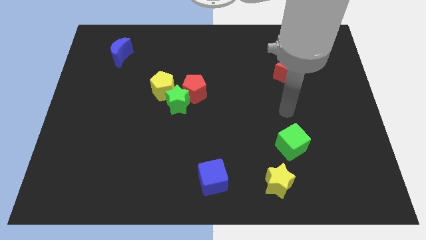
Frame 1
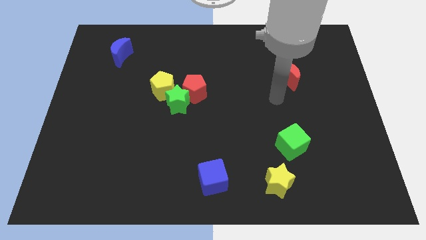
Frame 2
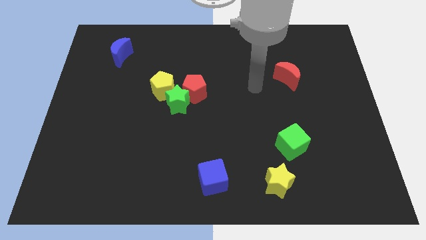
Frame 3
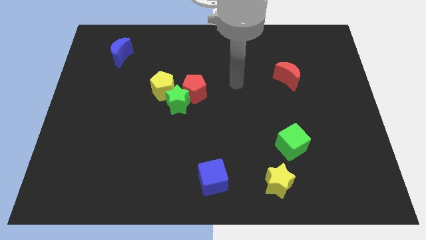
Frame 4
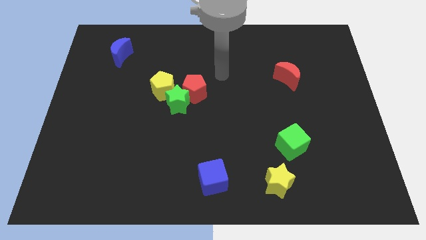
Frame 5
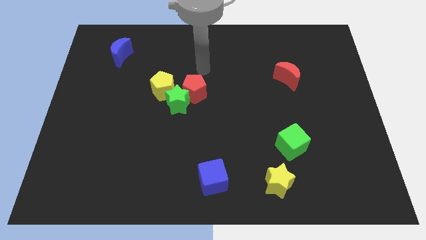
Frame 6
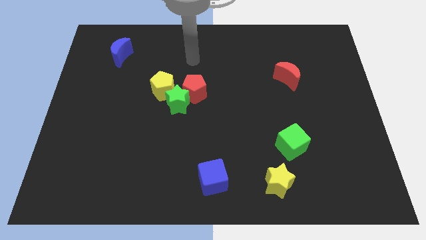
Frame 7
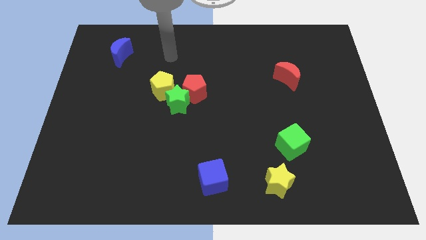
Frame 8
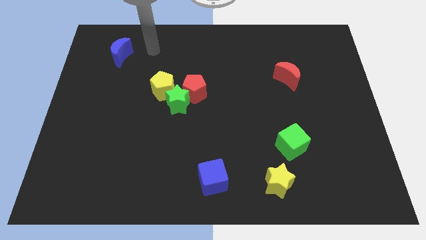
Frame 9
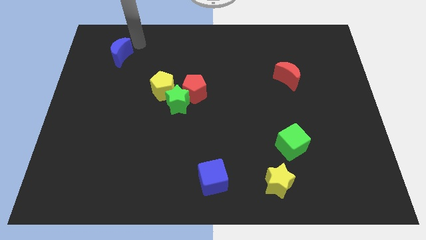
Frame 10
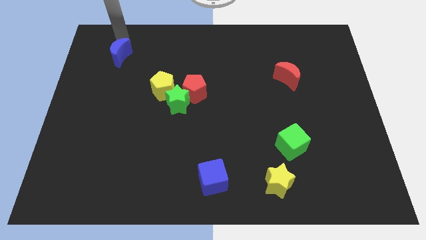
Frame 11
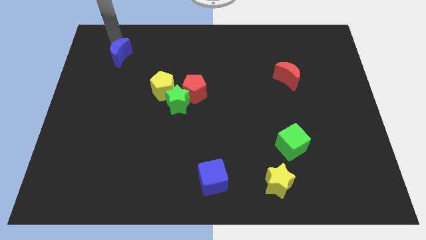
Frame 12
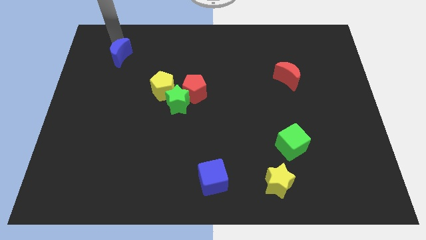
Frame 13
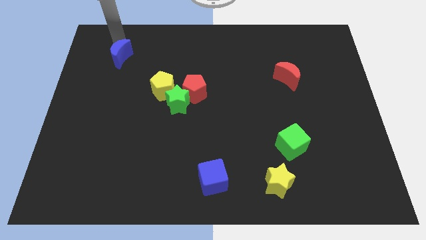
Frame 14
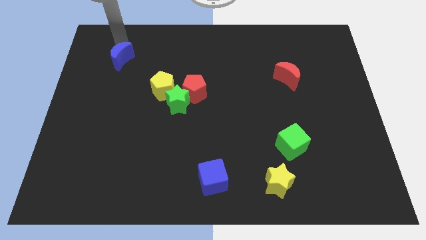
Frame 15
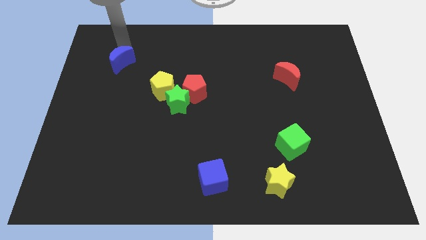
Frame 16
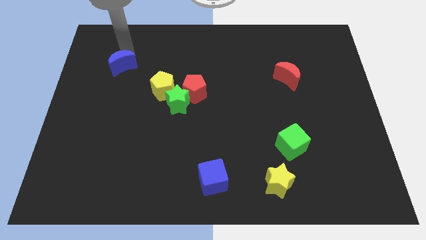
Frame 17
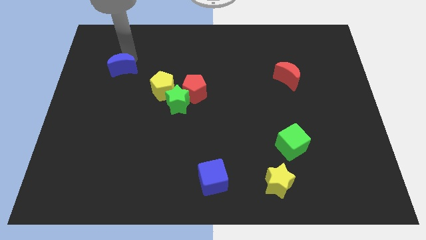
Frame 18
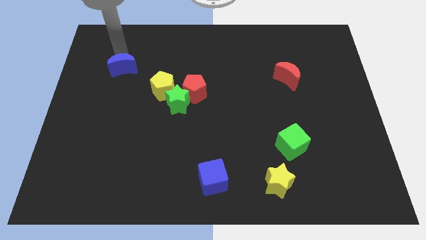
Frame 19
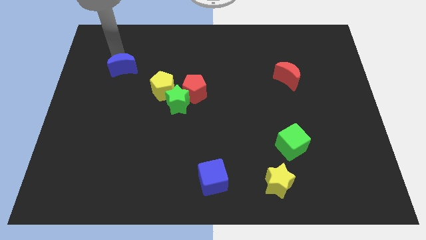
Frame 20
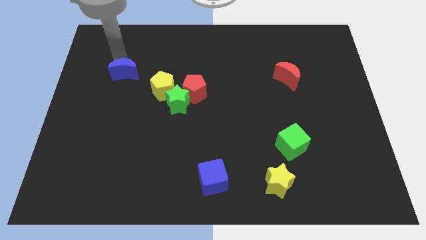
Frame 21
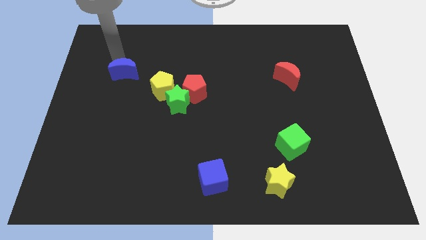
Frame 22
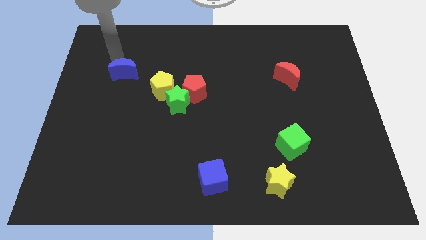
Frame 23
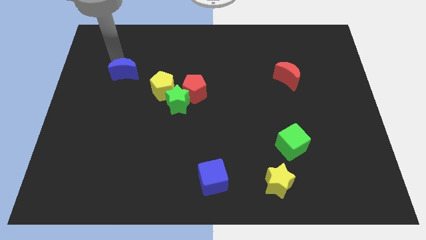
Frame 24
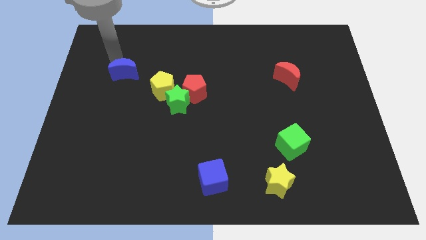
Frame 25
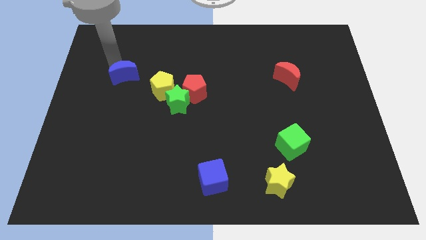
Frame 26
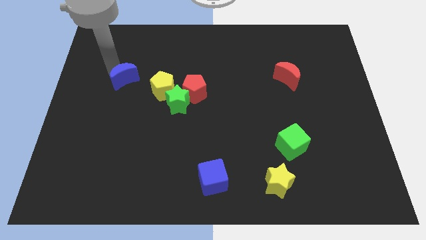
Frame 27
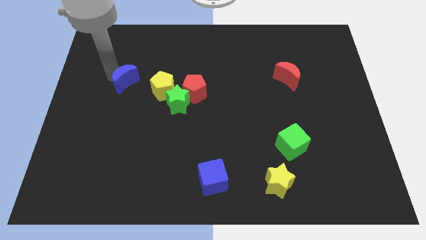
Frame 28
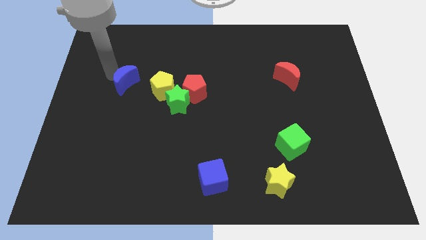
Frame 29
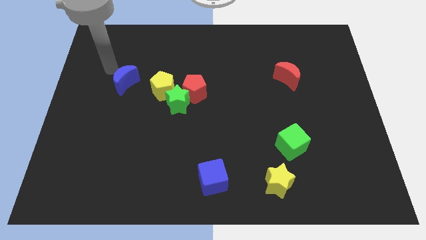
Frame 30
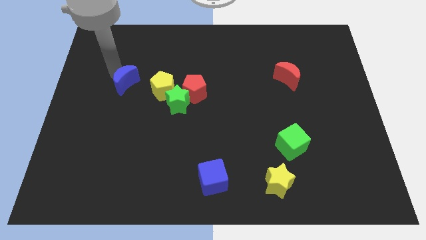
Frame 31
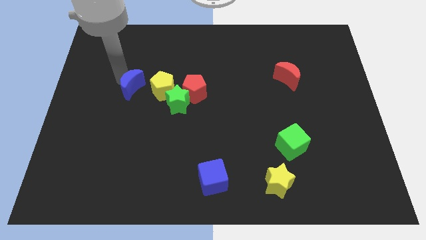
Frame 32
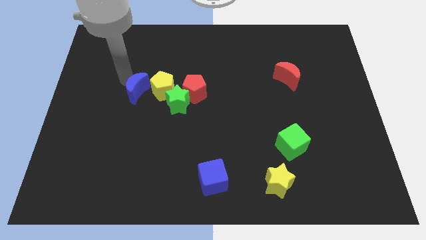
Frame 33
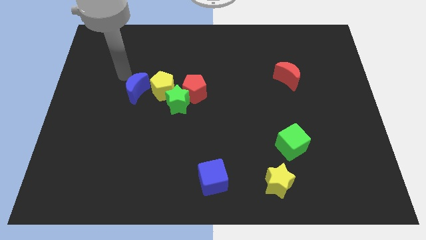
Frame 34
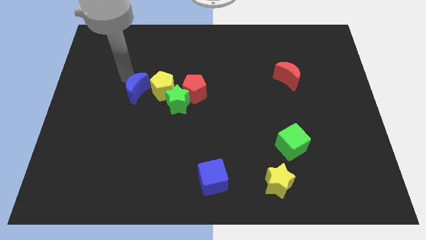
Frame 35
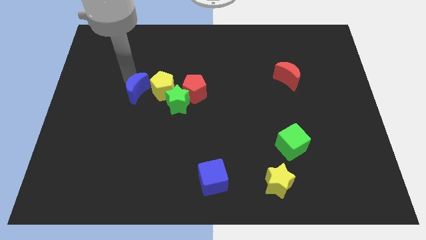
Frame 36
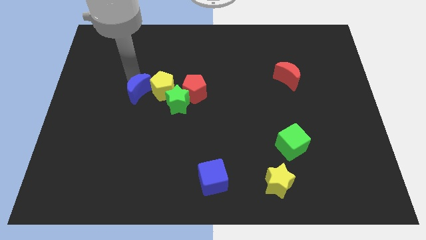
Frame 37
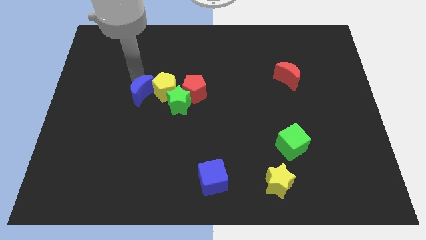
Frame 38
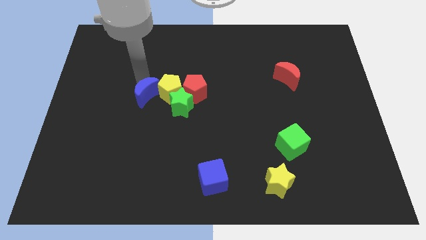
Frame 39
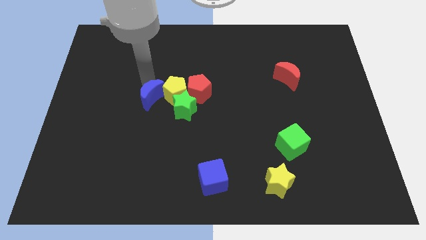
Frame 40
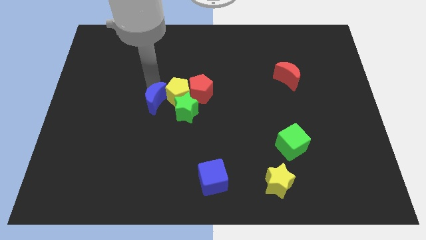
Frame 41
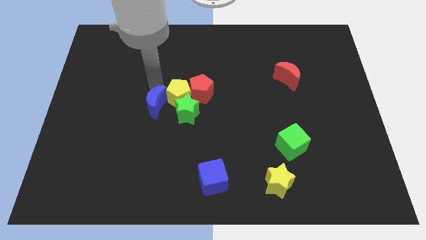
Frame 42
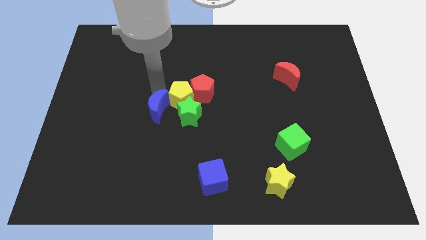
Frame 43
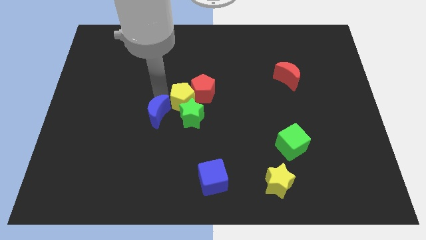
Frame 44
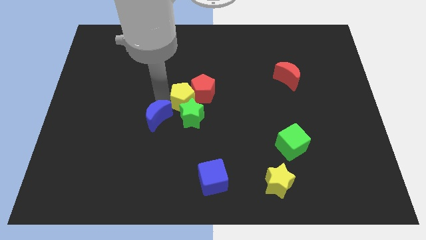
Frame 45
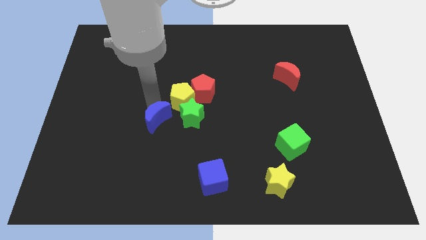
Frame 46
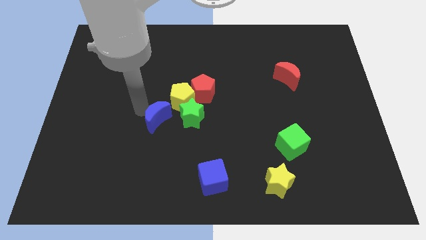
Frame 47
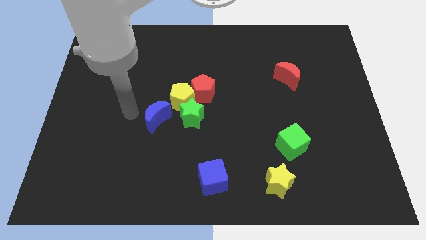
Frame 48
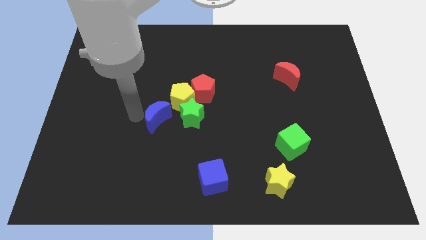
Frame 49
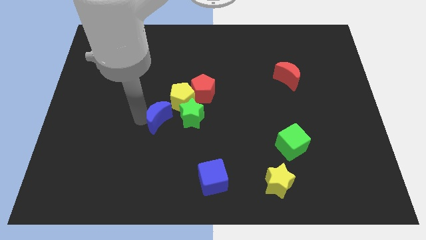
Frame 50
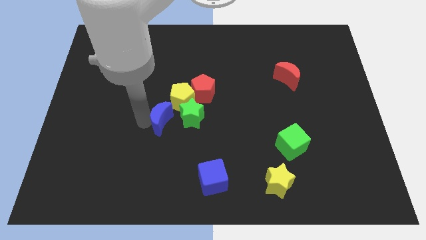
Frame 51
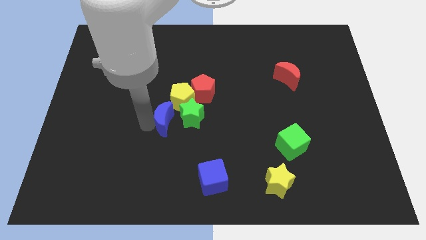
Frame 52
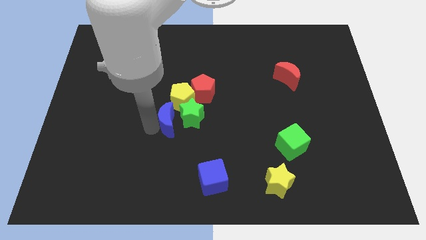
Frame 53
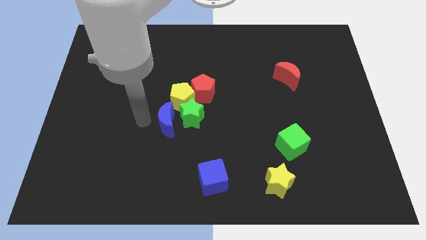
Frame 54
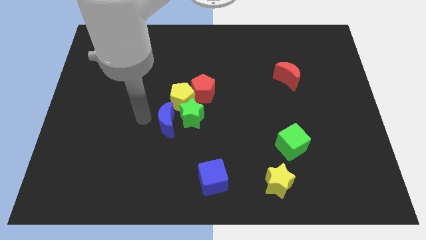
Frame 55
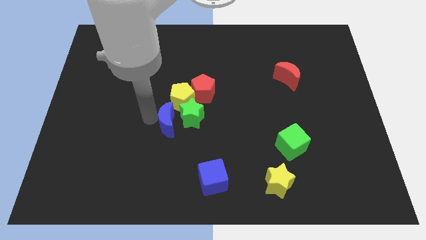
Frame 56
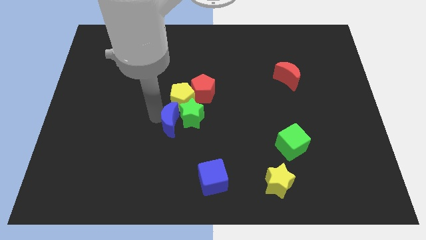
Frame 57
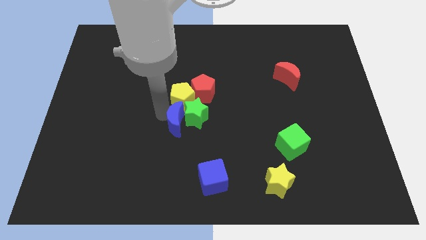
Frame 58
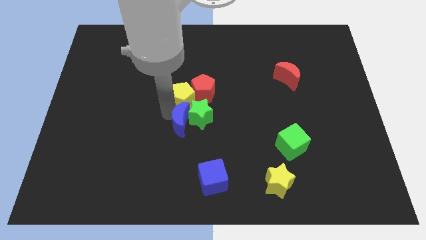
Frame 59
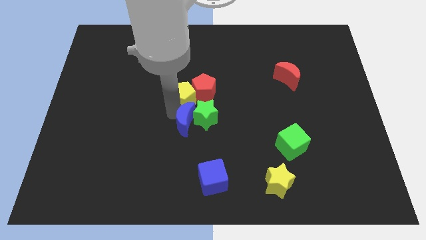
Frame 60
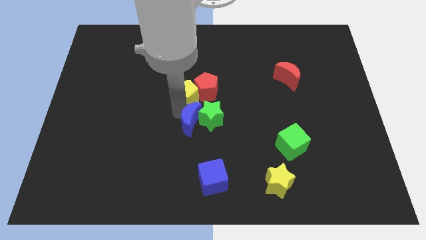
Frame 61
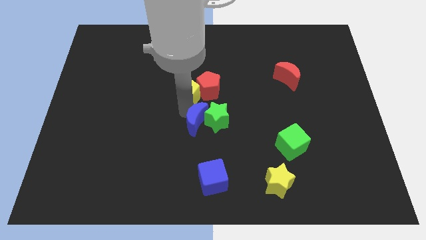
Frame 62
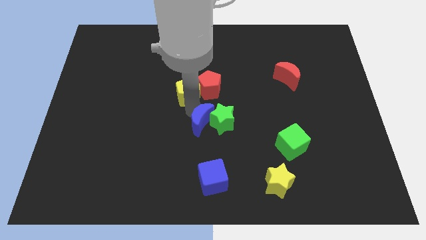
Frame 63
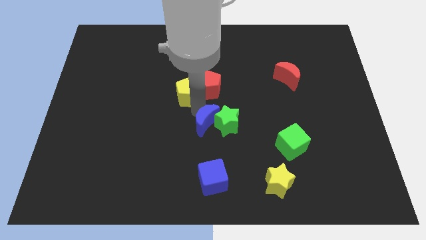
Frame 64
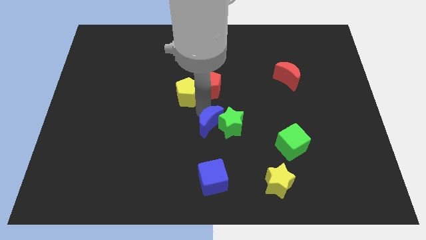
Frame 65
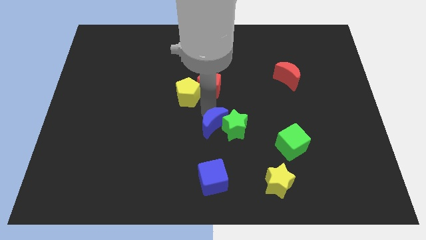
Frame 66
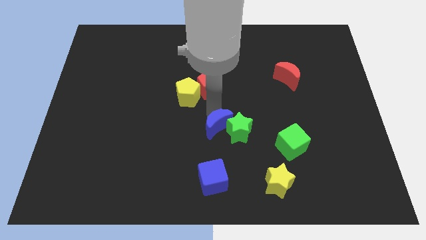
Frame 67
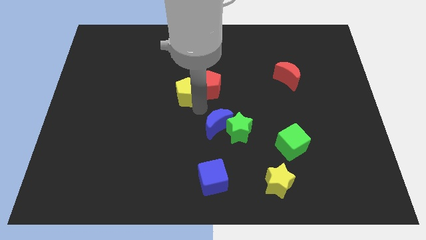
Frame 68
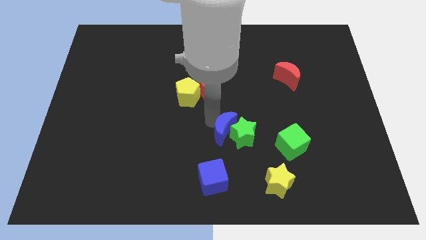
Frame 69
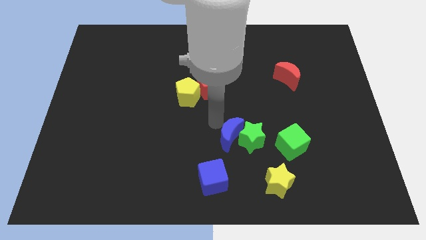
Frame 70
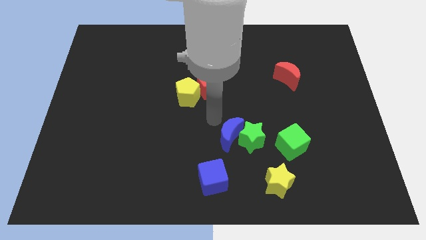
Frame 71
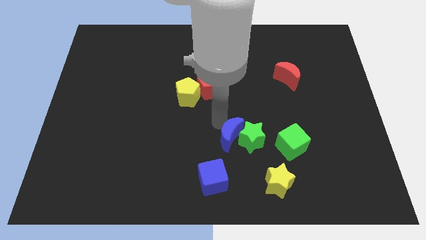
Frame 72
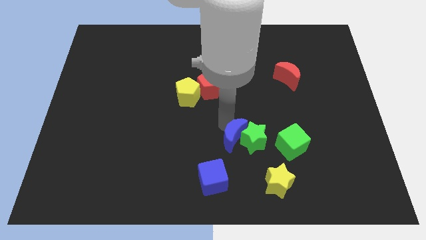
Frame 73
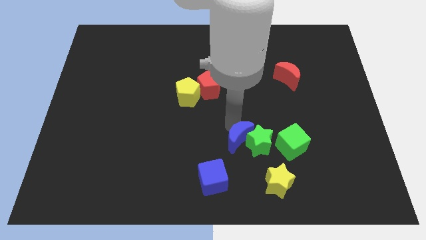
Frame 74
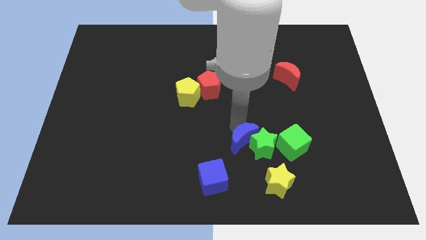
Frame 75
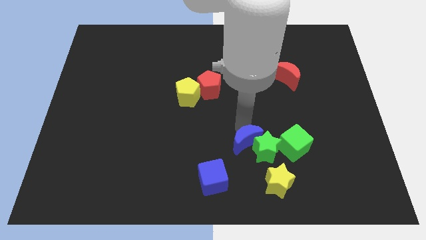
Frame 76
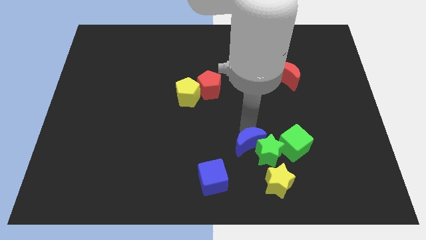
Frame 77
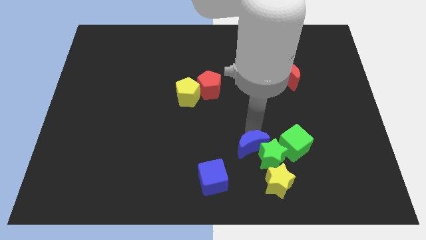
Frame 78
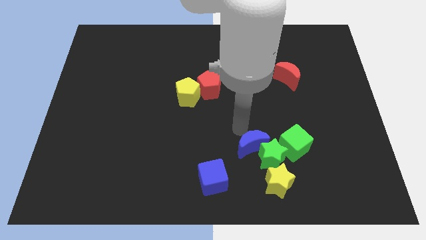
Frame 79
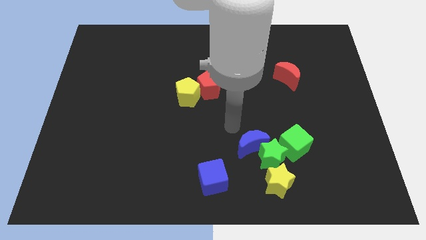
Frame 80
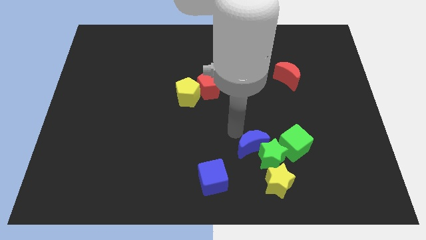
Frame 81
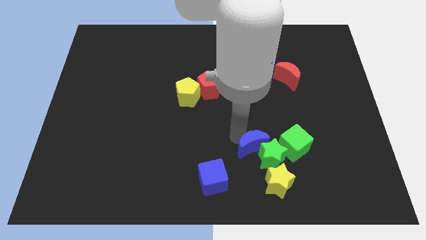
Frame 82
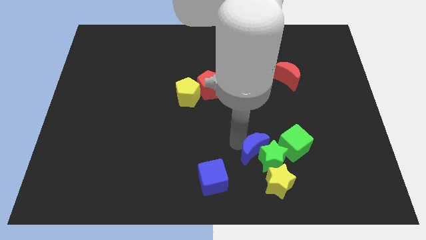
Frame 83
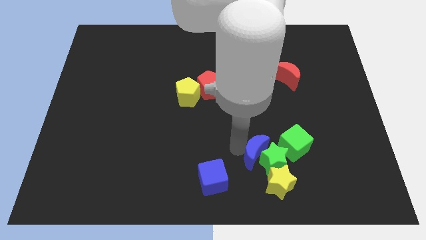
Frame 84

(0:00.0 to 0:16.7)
push the blue moon diagonally down and to the left of the green cube
